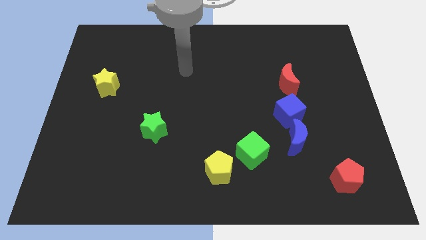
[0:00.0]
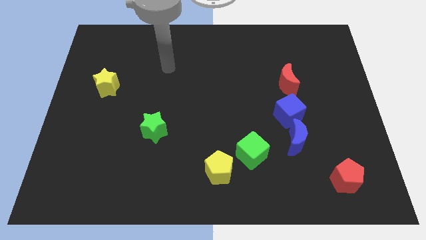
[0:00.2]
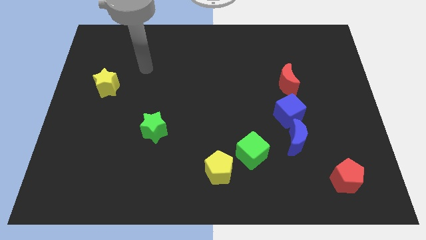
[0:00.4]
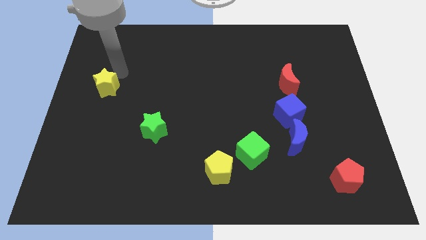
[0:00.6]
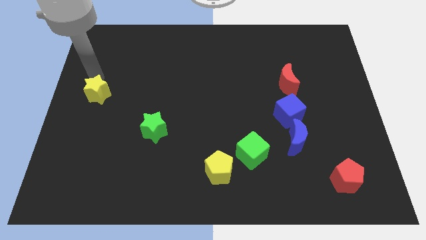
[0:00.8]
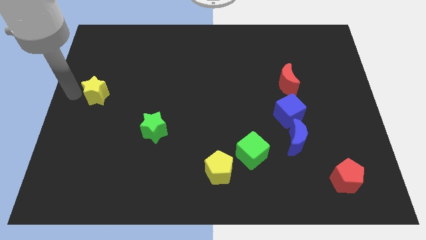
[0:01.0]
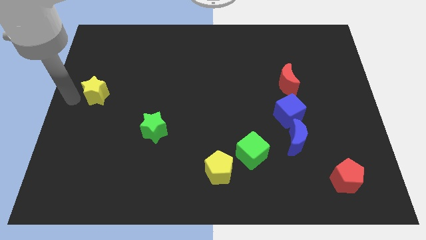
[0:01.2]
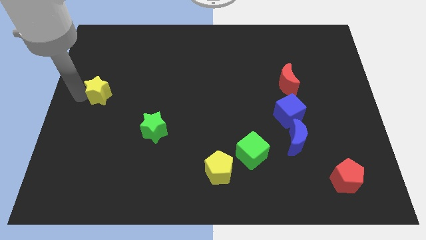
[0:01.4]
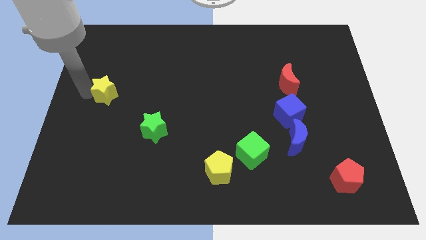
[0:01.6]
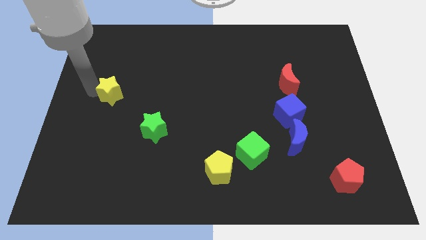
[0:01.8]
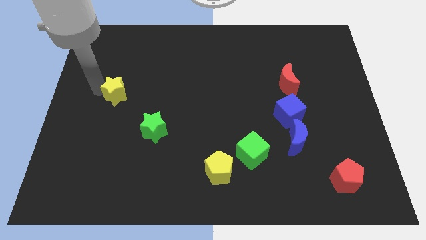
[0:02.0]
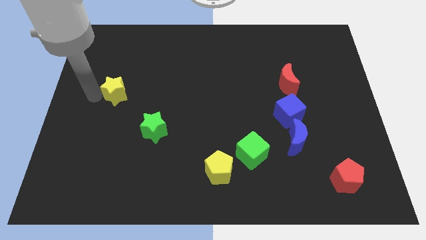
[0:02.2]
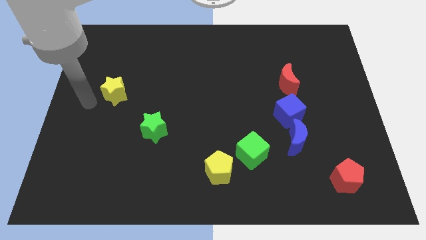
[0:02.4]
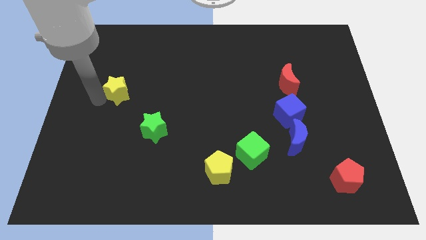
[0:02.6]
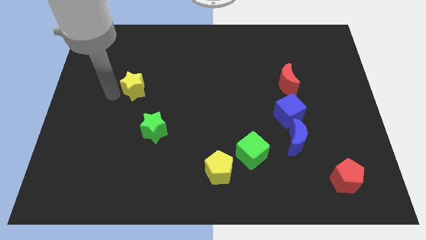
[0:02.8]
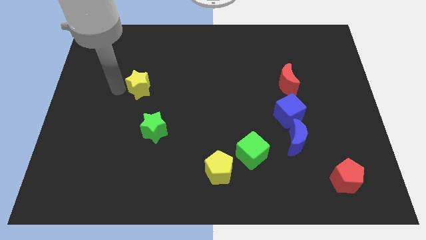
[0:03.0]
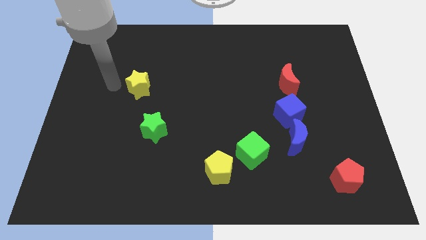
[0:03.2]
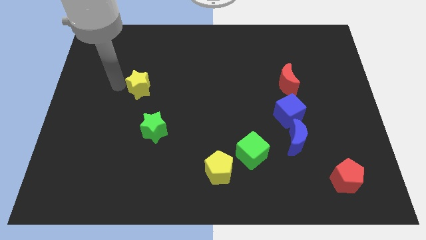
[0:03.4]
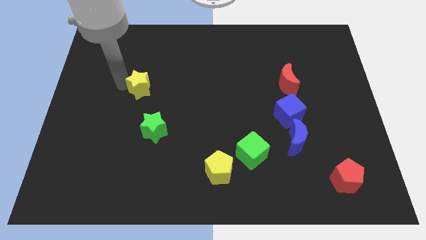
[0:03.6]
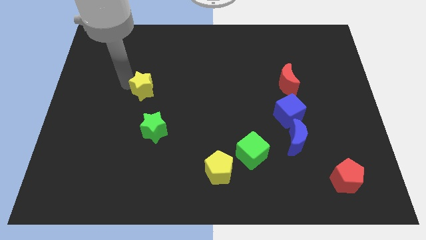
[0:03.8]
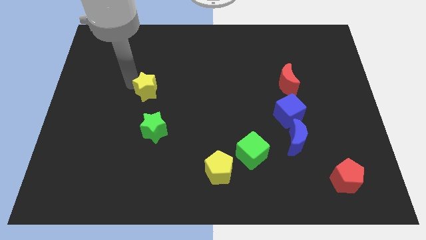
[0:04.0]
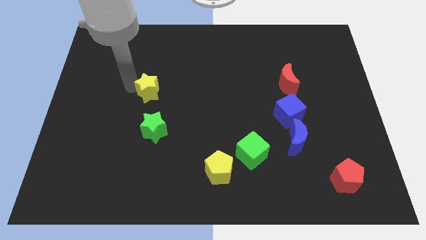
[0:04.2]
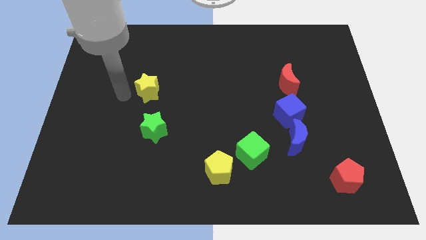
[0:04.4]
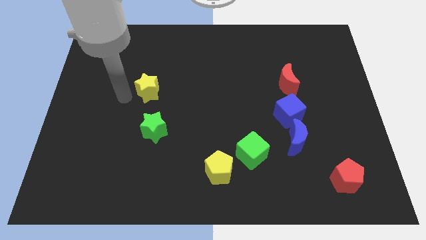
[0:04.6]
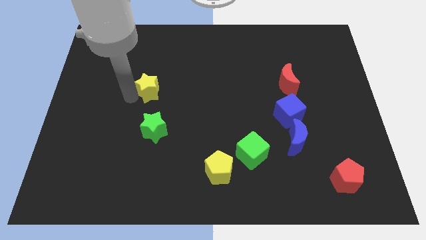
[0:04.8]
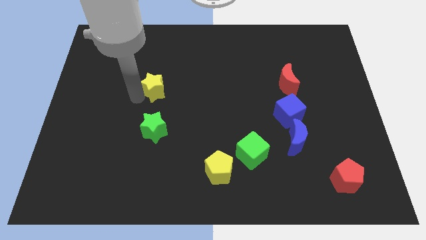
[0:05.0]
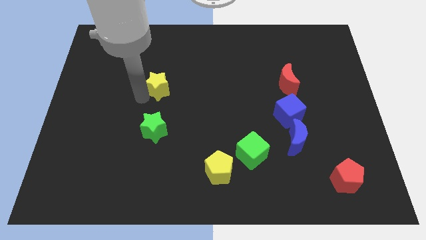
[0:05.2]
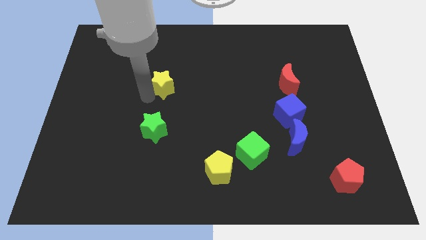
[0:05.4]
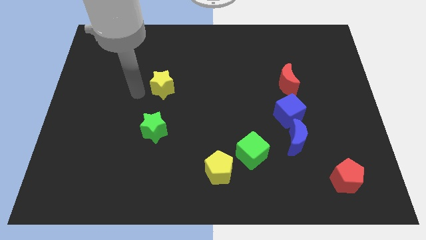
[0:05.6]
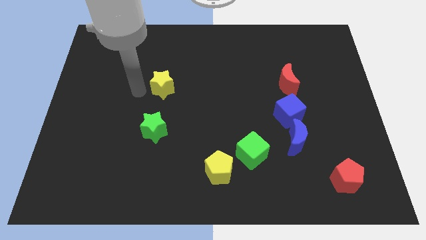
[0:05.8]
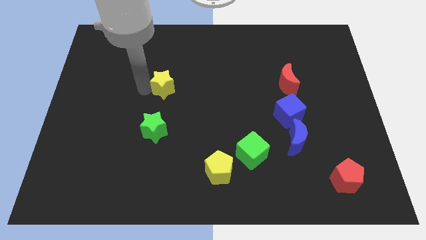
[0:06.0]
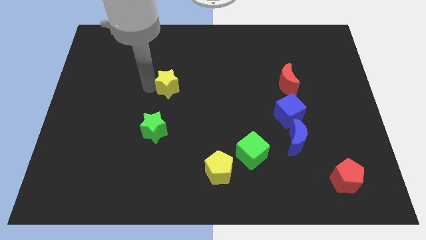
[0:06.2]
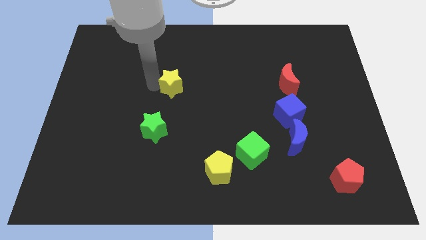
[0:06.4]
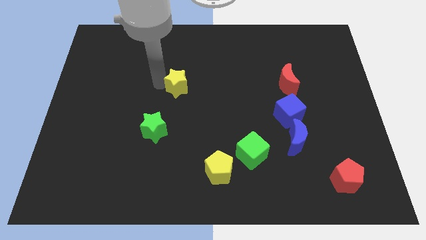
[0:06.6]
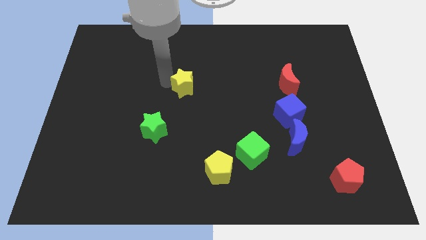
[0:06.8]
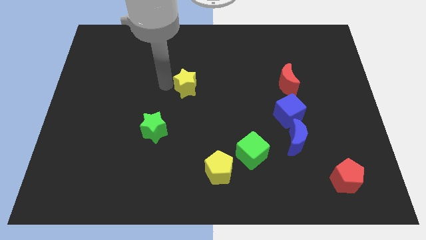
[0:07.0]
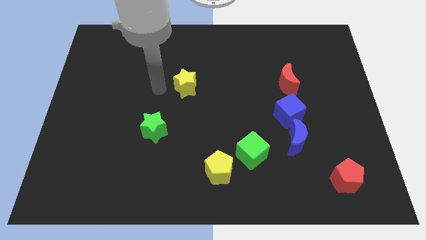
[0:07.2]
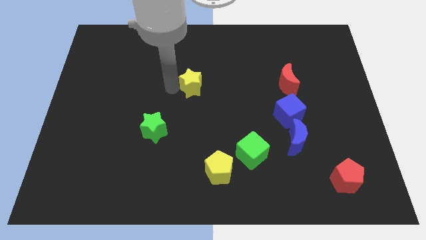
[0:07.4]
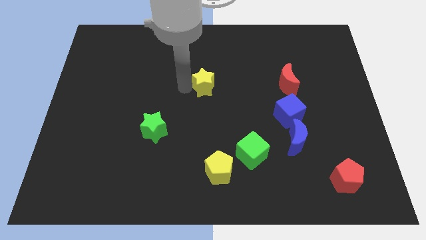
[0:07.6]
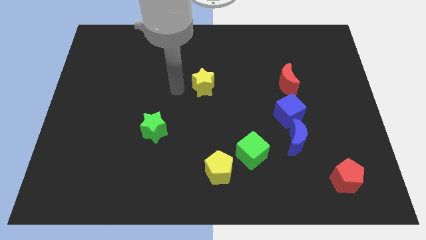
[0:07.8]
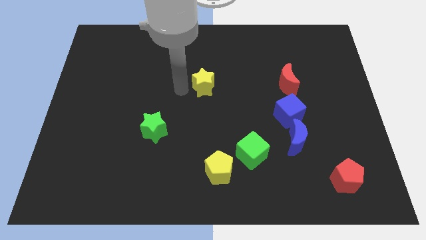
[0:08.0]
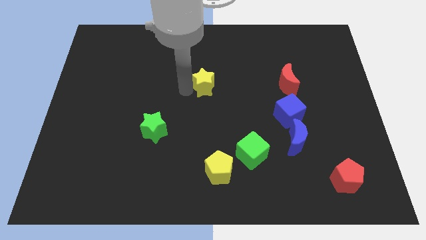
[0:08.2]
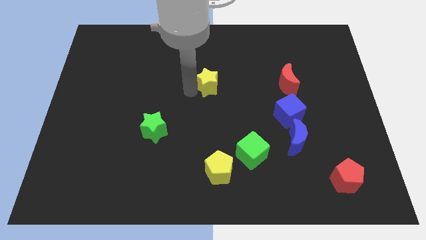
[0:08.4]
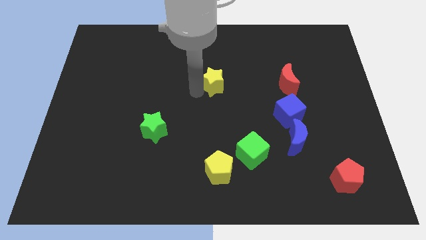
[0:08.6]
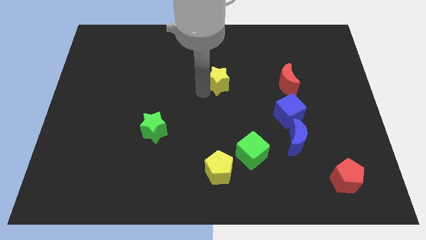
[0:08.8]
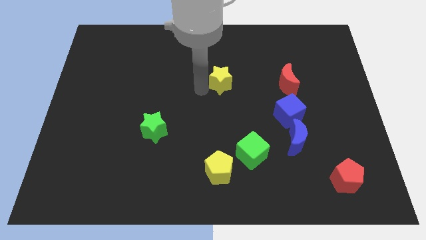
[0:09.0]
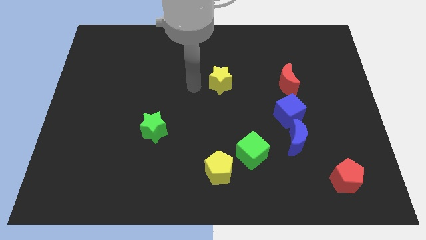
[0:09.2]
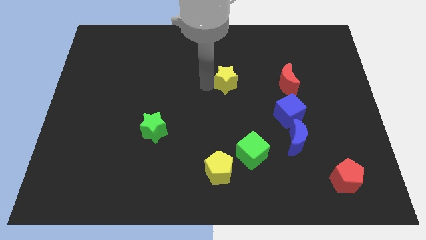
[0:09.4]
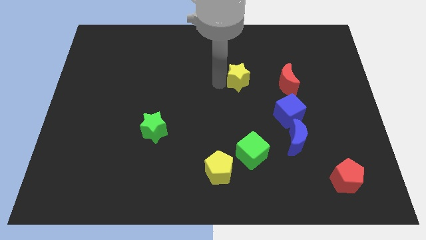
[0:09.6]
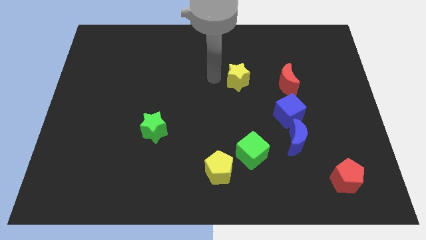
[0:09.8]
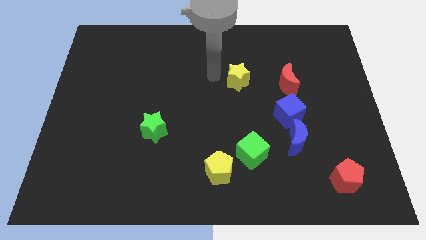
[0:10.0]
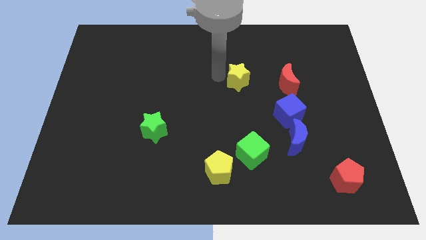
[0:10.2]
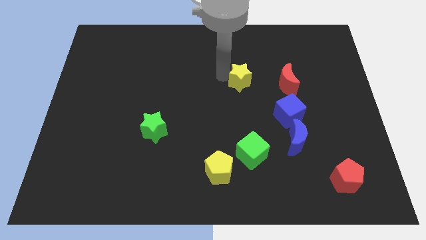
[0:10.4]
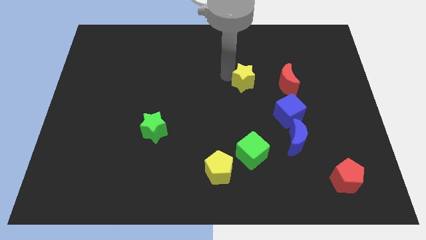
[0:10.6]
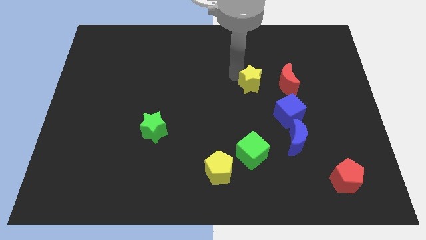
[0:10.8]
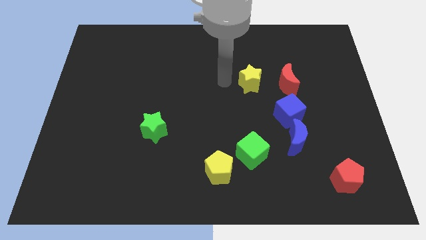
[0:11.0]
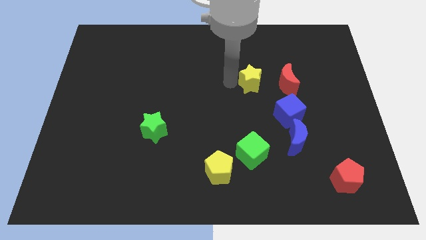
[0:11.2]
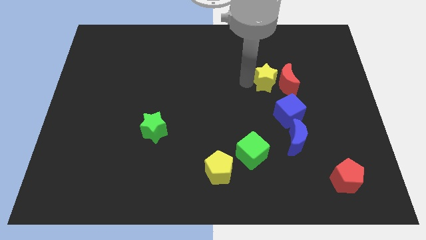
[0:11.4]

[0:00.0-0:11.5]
slide the yellow star towards the red moon

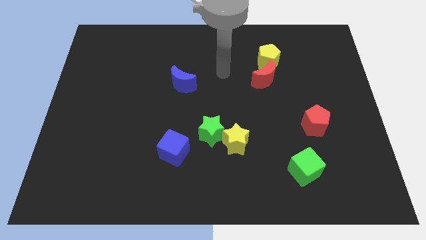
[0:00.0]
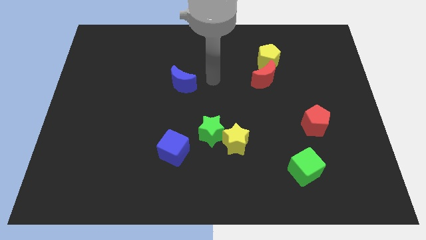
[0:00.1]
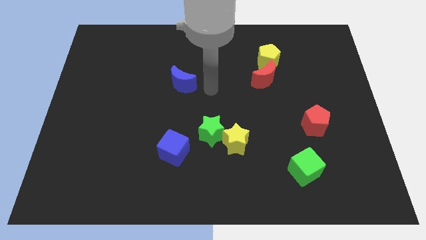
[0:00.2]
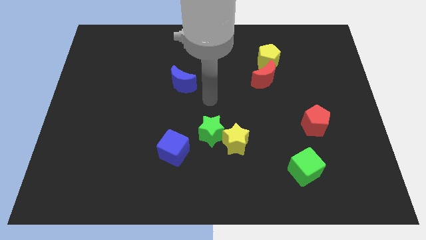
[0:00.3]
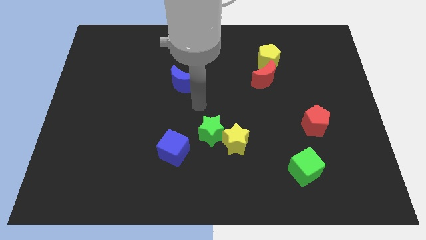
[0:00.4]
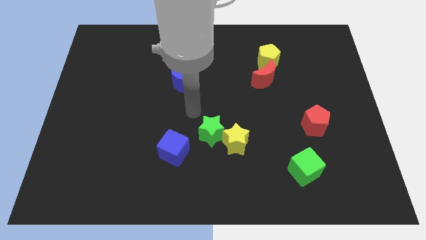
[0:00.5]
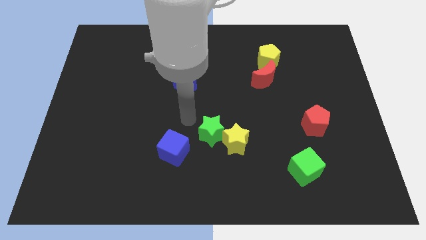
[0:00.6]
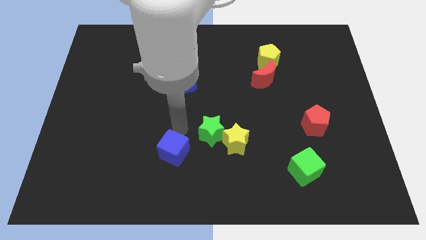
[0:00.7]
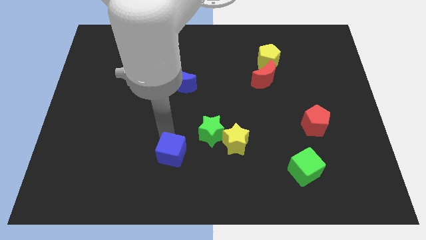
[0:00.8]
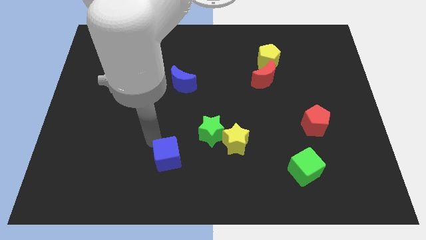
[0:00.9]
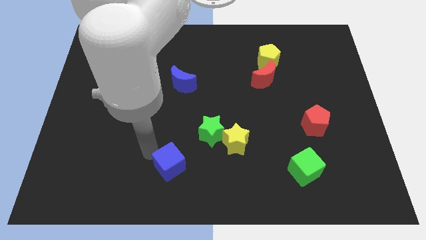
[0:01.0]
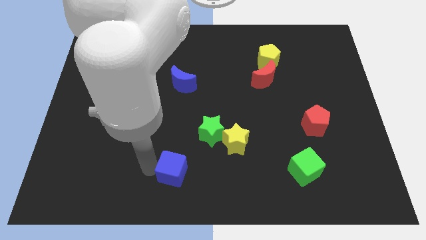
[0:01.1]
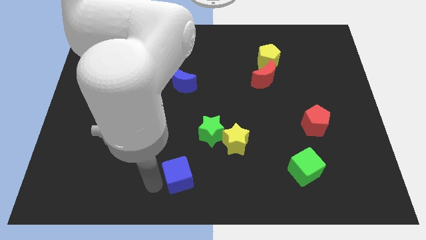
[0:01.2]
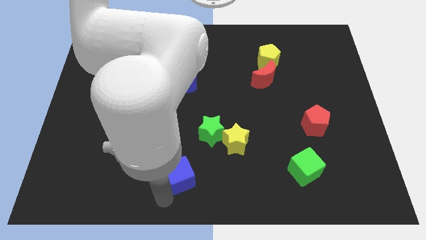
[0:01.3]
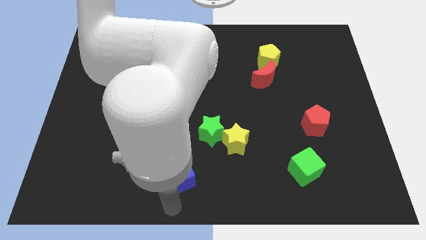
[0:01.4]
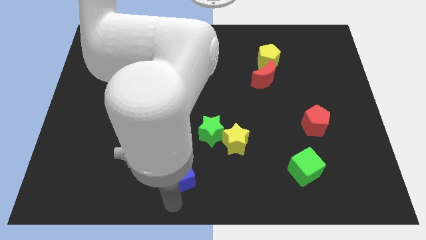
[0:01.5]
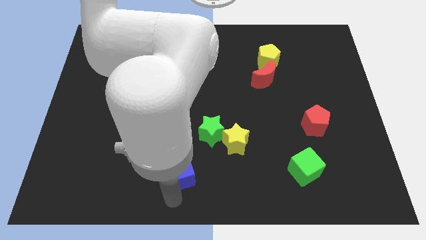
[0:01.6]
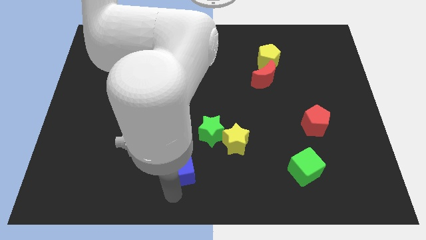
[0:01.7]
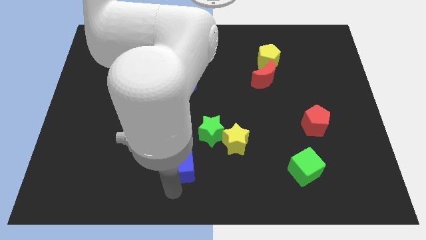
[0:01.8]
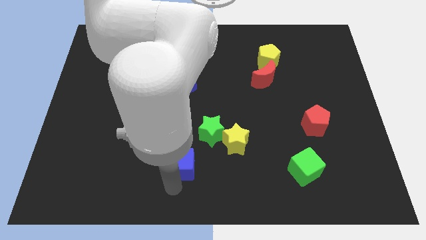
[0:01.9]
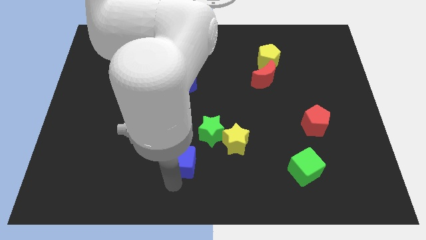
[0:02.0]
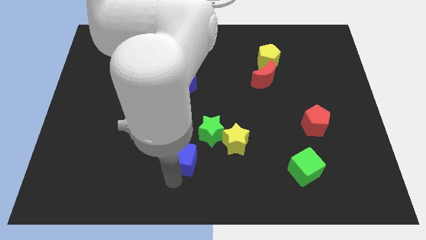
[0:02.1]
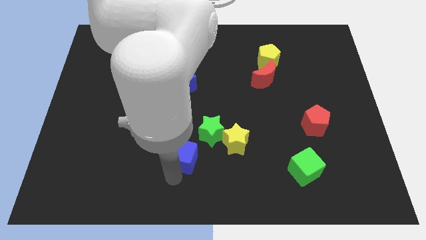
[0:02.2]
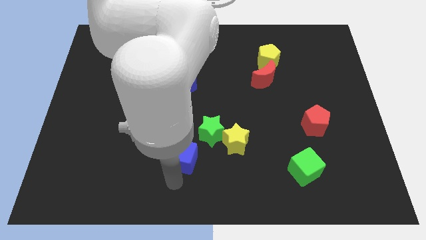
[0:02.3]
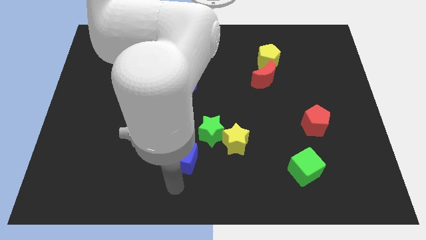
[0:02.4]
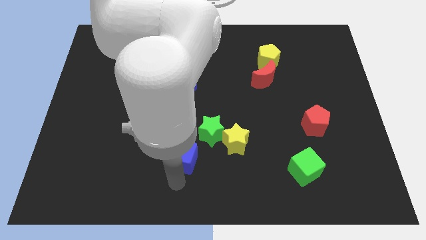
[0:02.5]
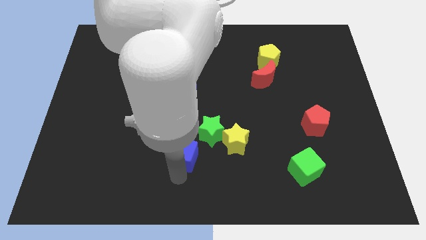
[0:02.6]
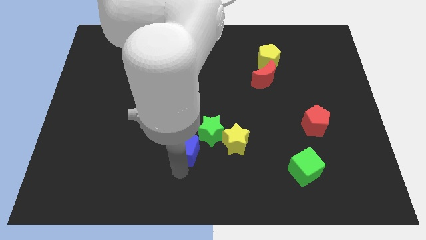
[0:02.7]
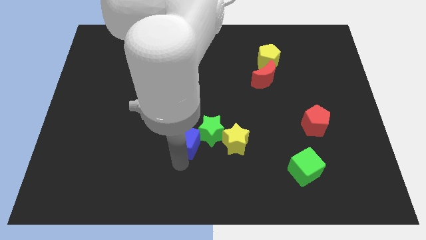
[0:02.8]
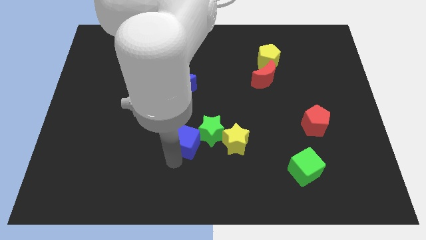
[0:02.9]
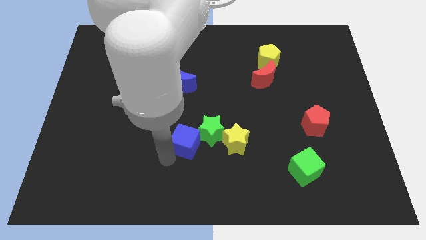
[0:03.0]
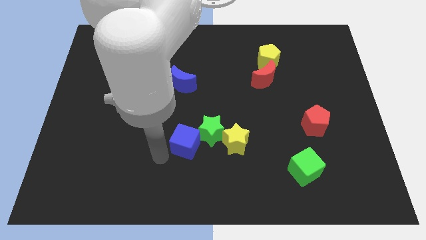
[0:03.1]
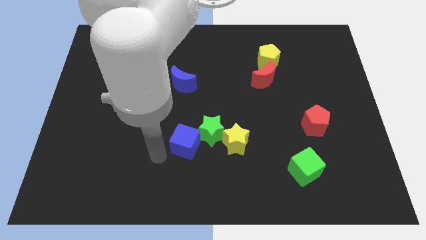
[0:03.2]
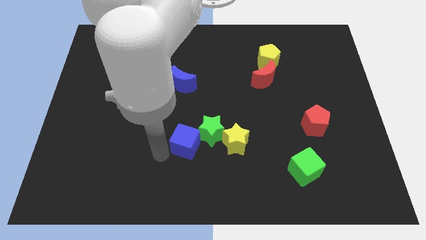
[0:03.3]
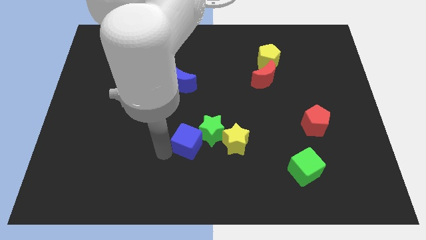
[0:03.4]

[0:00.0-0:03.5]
push the blue cube to the green star
